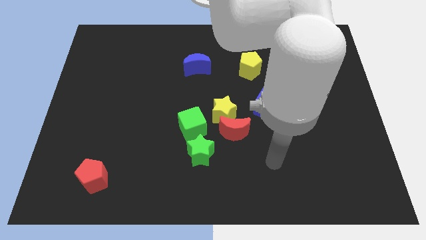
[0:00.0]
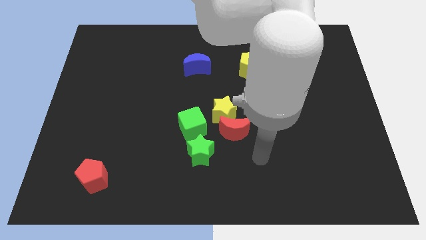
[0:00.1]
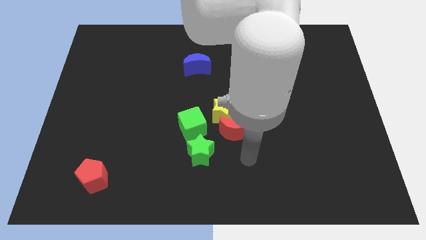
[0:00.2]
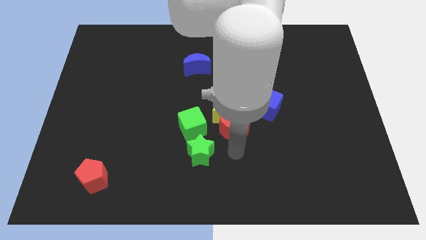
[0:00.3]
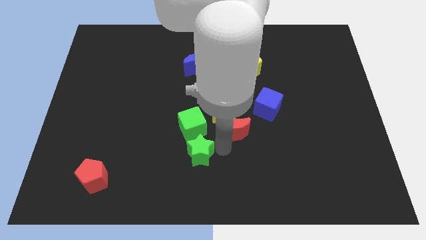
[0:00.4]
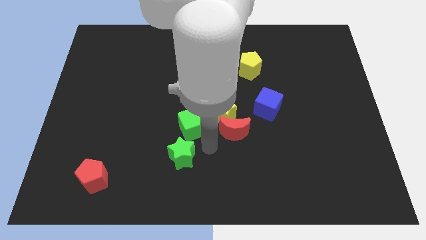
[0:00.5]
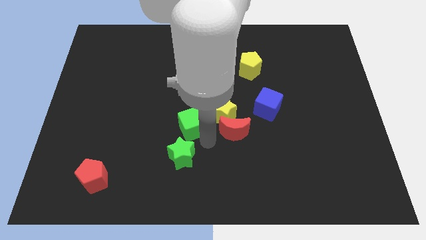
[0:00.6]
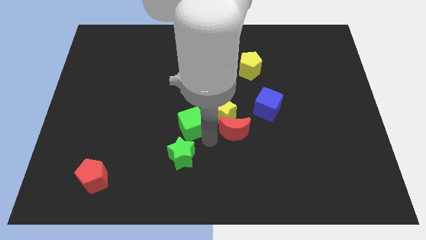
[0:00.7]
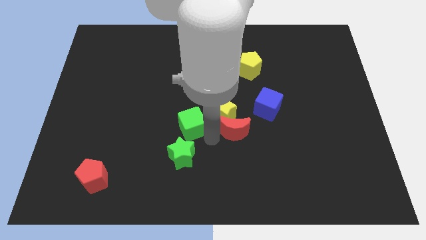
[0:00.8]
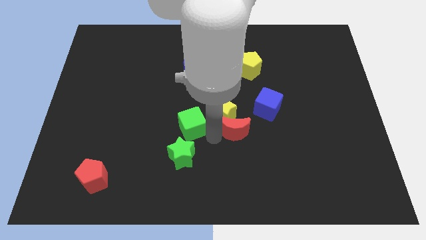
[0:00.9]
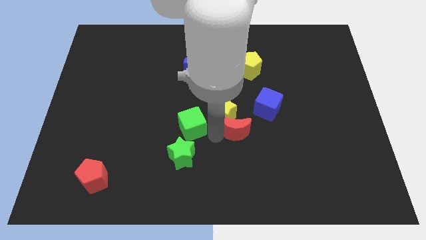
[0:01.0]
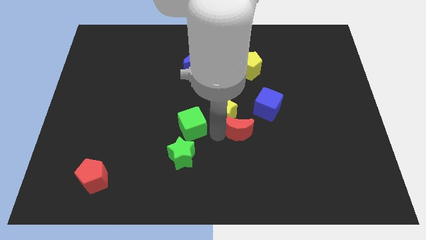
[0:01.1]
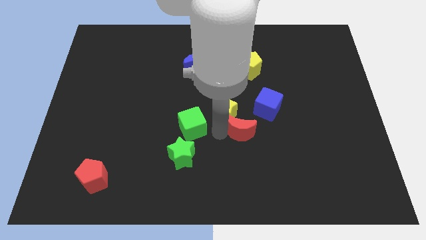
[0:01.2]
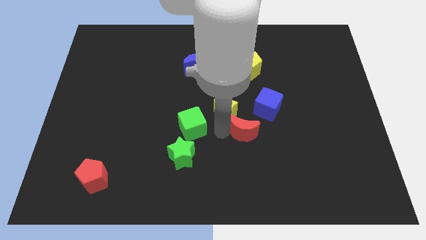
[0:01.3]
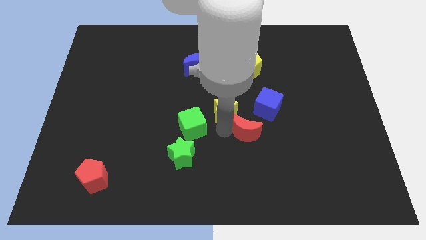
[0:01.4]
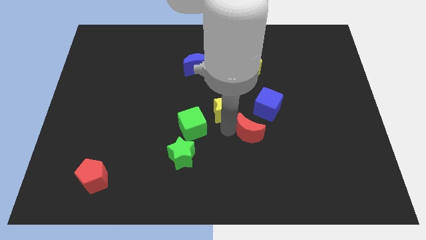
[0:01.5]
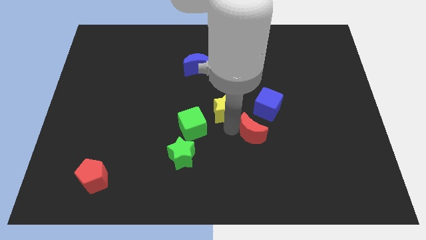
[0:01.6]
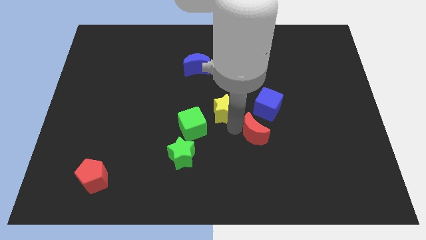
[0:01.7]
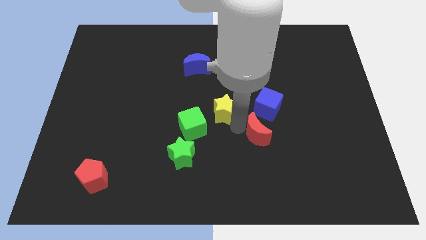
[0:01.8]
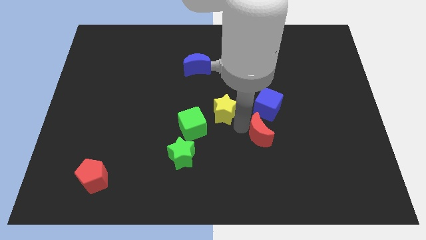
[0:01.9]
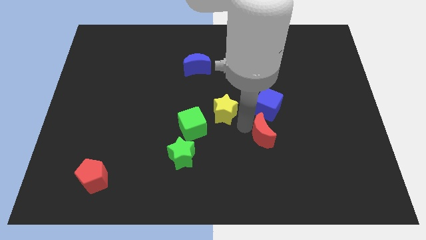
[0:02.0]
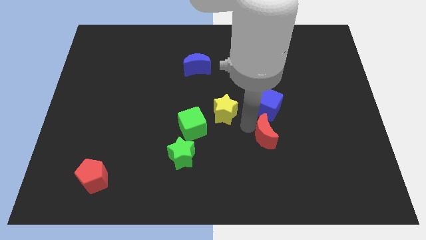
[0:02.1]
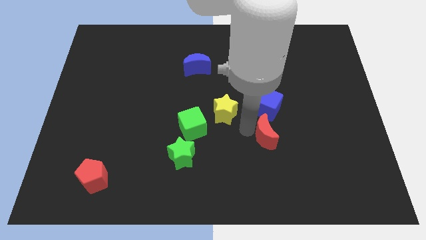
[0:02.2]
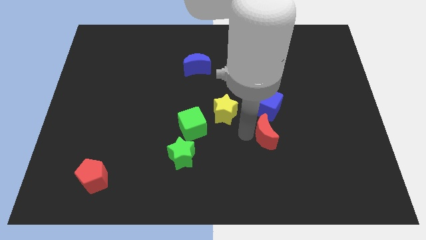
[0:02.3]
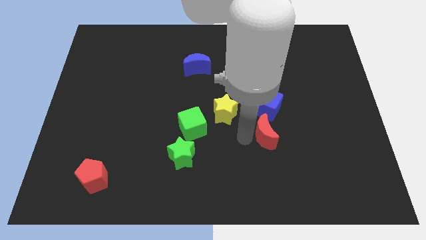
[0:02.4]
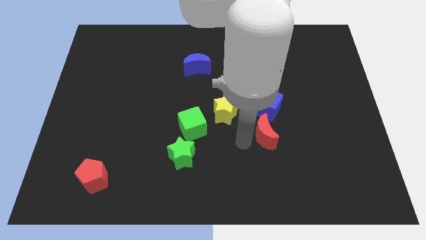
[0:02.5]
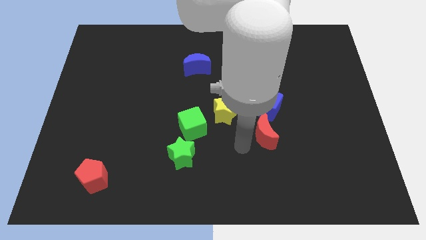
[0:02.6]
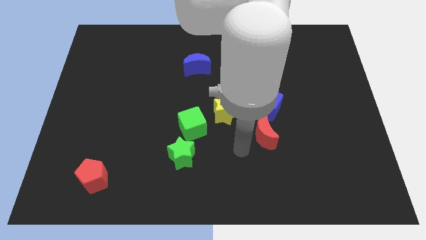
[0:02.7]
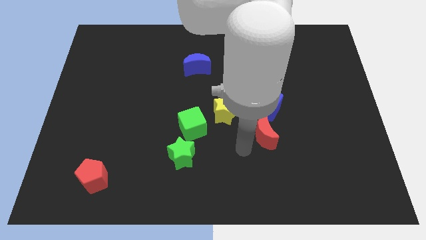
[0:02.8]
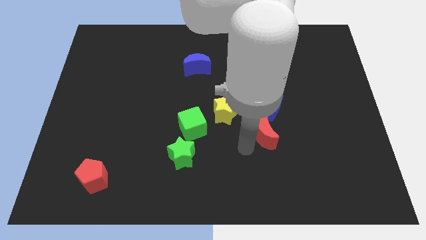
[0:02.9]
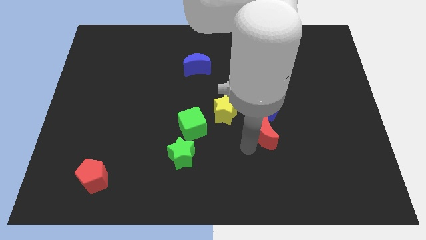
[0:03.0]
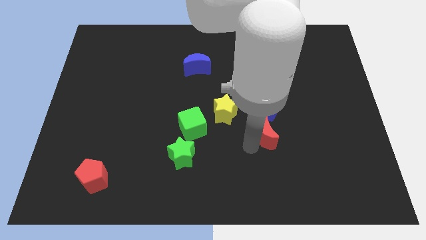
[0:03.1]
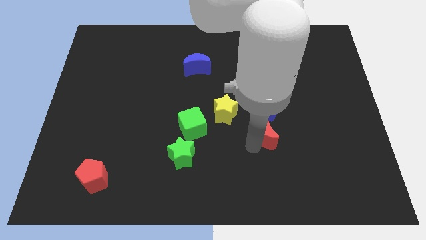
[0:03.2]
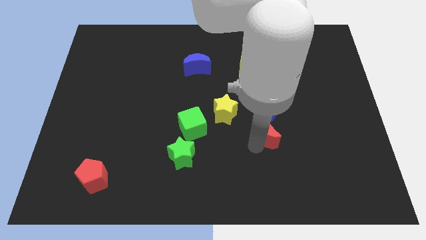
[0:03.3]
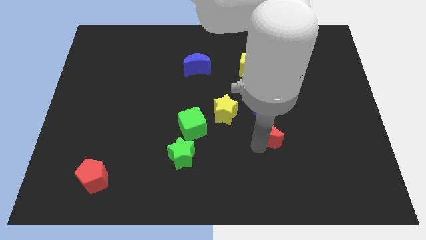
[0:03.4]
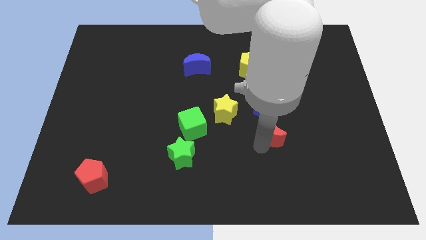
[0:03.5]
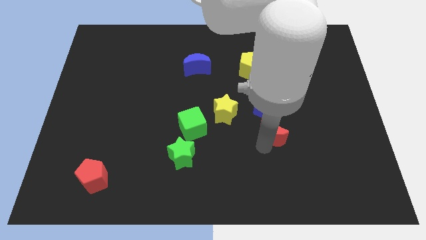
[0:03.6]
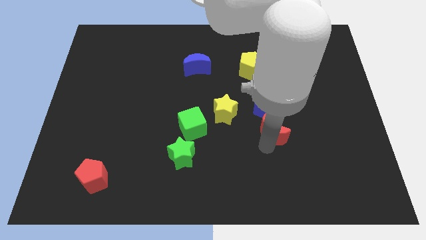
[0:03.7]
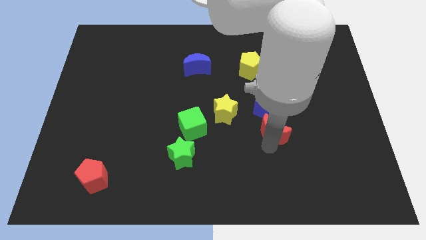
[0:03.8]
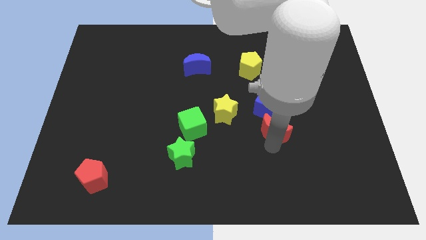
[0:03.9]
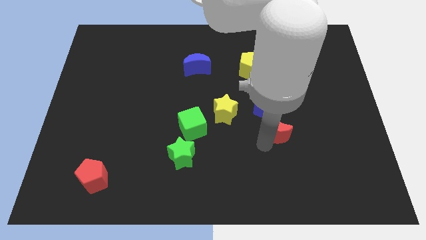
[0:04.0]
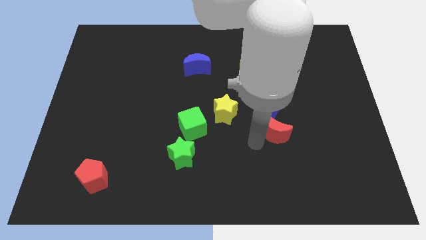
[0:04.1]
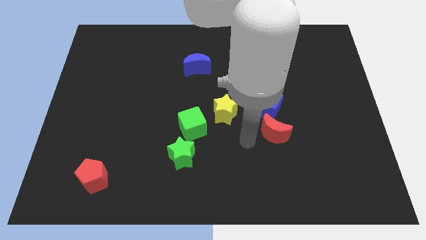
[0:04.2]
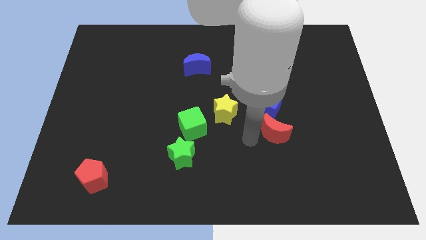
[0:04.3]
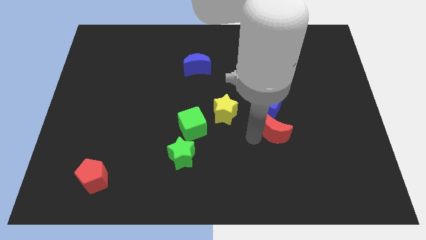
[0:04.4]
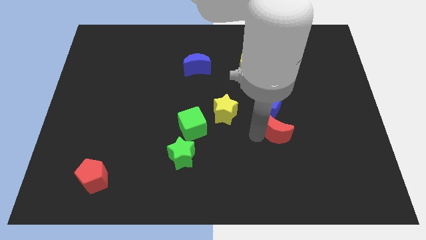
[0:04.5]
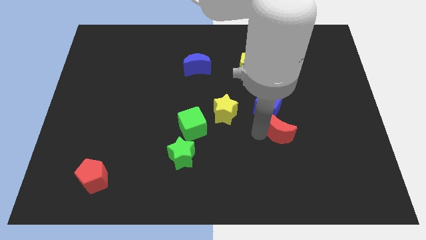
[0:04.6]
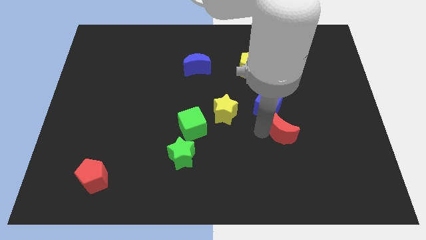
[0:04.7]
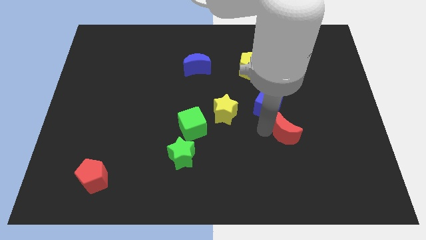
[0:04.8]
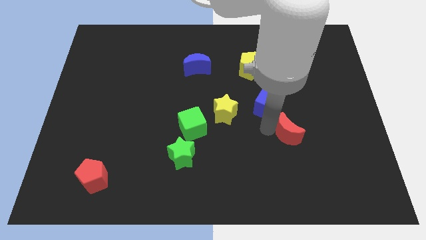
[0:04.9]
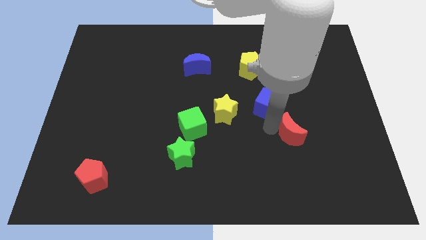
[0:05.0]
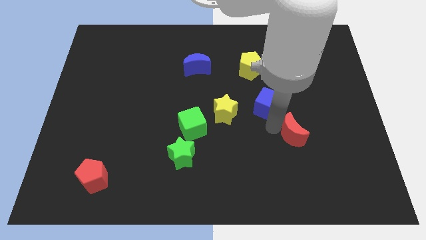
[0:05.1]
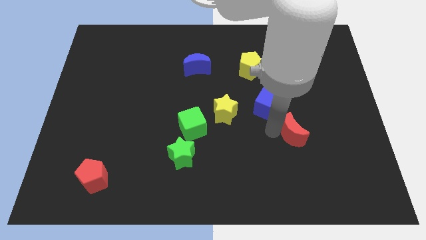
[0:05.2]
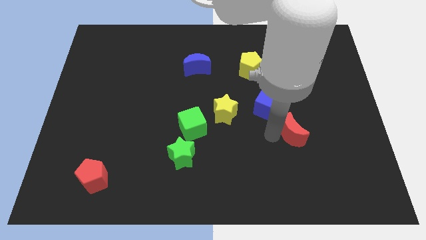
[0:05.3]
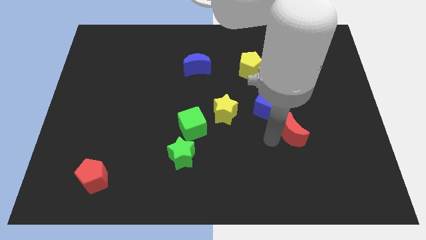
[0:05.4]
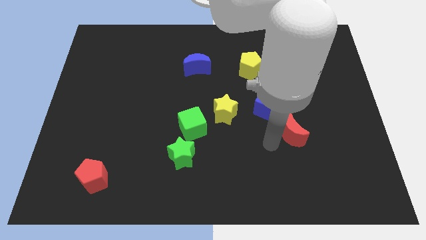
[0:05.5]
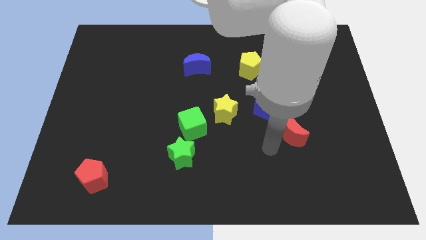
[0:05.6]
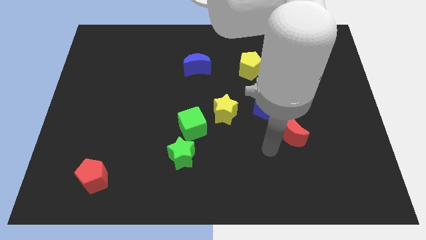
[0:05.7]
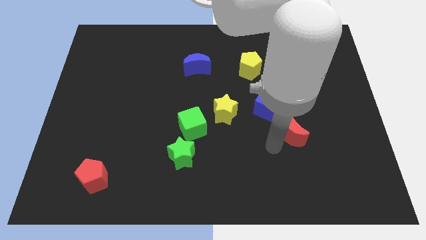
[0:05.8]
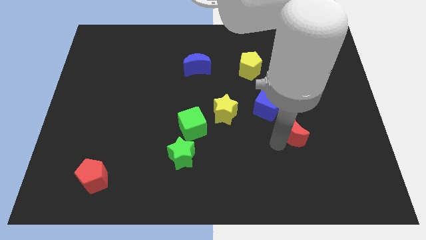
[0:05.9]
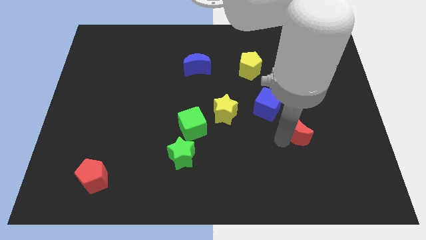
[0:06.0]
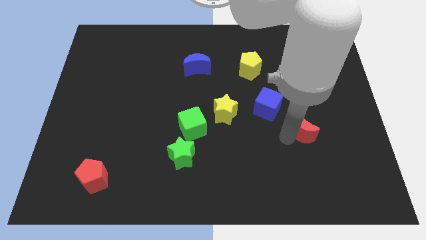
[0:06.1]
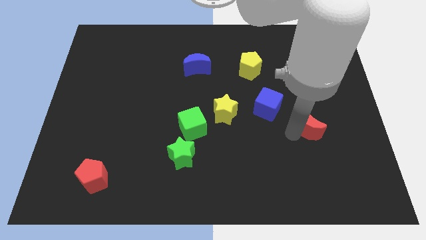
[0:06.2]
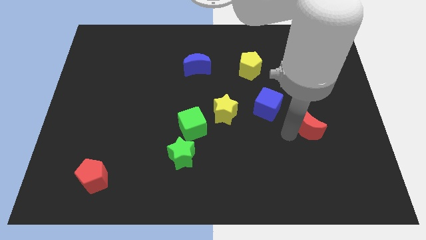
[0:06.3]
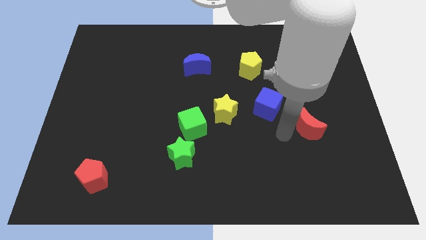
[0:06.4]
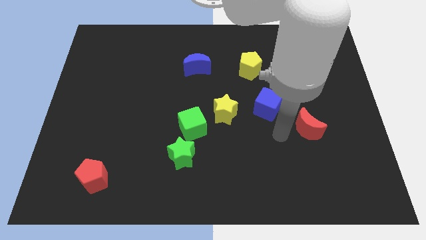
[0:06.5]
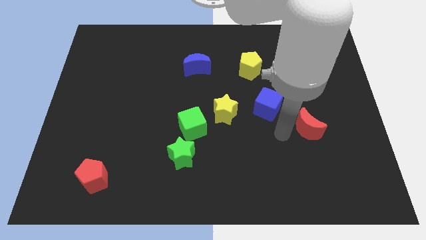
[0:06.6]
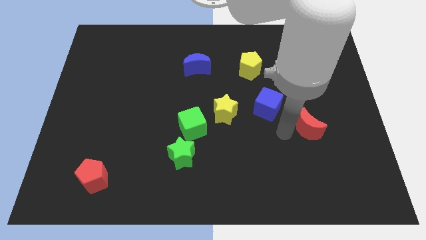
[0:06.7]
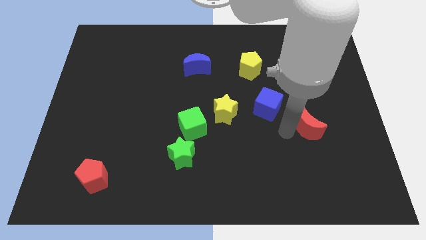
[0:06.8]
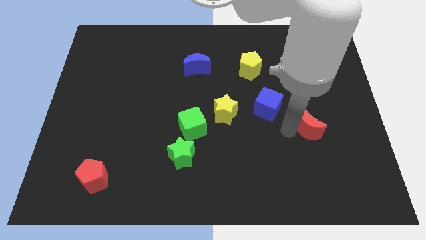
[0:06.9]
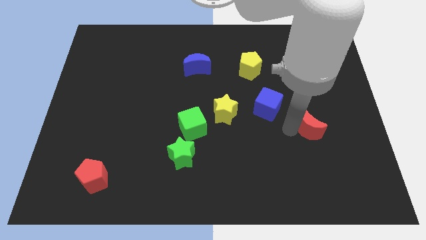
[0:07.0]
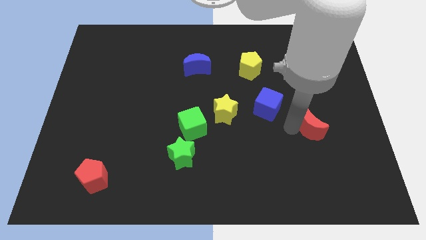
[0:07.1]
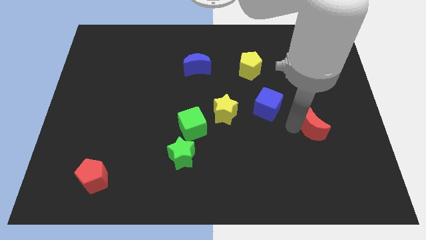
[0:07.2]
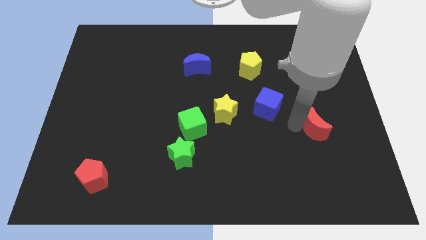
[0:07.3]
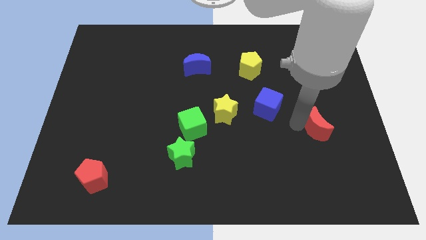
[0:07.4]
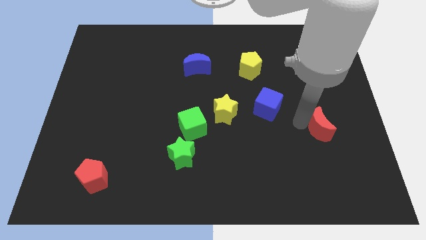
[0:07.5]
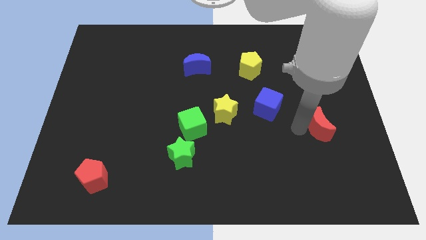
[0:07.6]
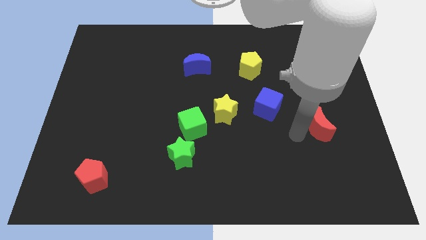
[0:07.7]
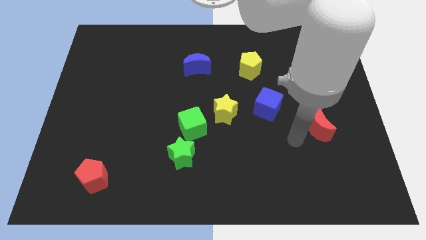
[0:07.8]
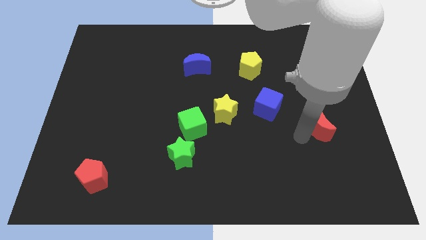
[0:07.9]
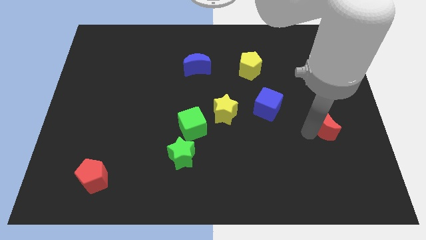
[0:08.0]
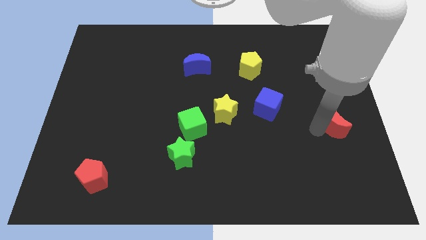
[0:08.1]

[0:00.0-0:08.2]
push the red moon to the right side of the board
